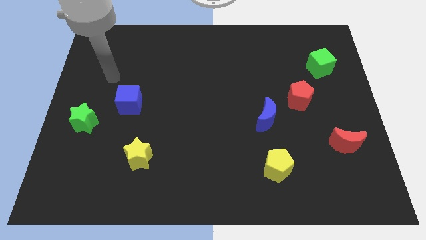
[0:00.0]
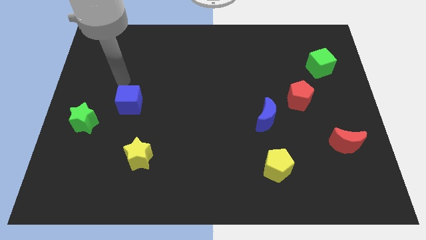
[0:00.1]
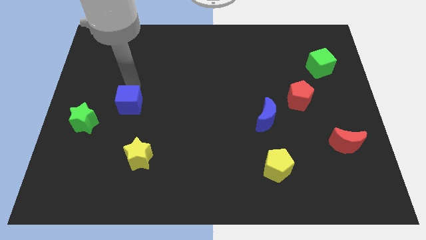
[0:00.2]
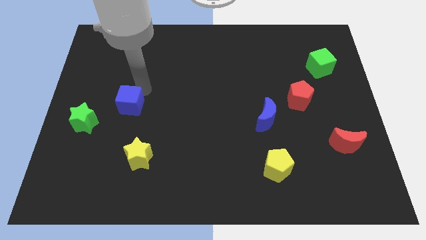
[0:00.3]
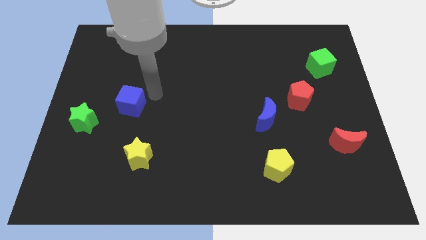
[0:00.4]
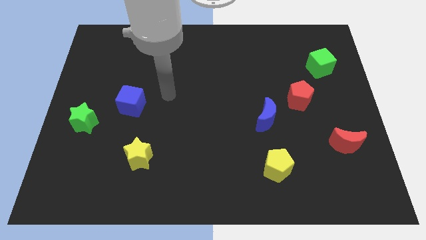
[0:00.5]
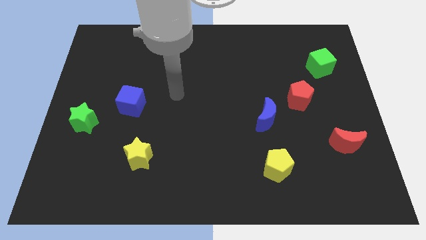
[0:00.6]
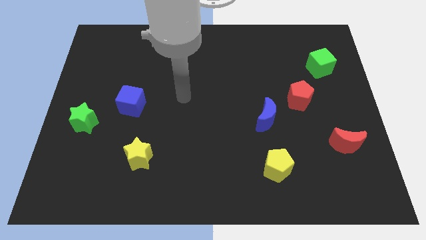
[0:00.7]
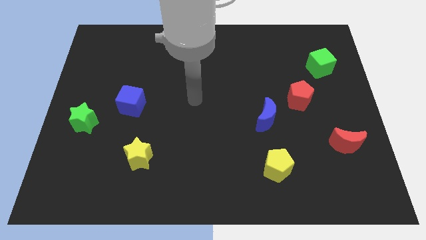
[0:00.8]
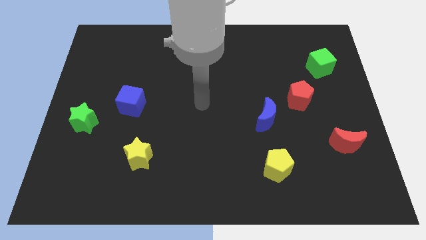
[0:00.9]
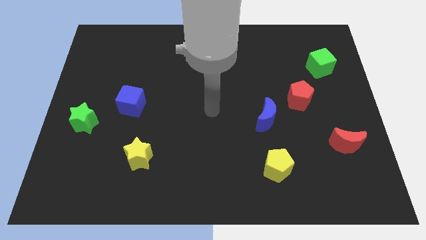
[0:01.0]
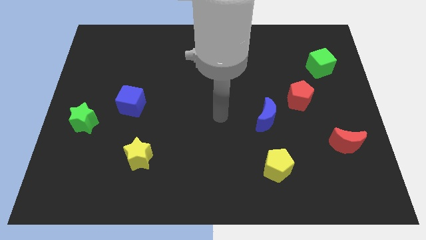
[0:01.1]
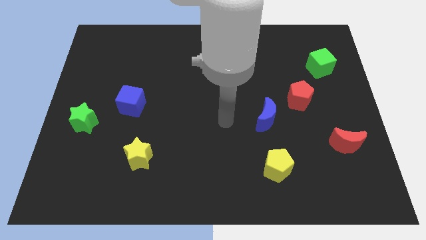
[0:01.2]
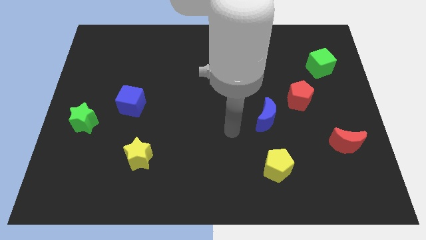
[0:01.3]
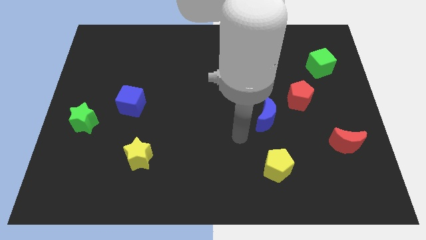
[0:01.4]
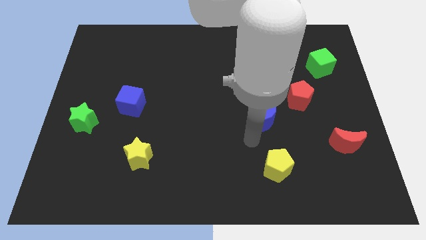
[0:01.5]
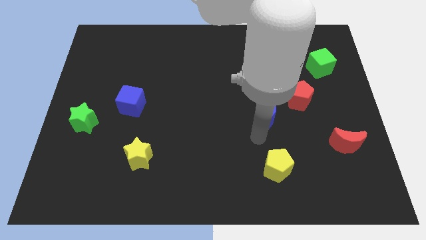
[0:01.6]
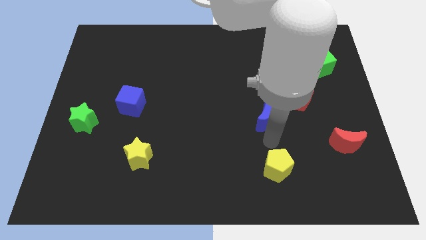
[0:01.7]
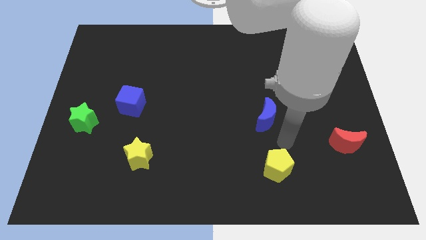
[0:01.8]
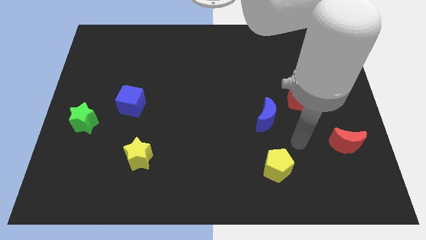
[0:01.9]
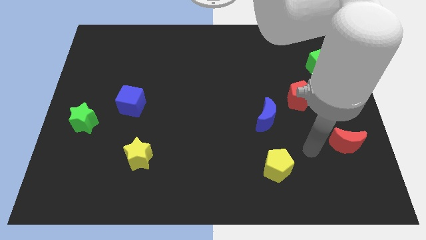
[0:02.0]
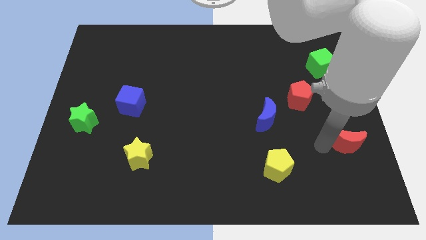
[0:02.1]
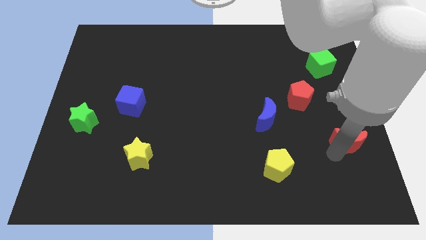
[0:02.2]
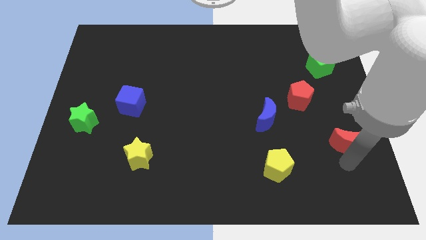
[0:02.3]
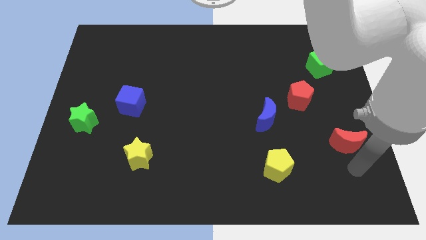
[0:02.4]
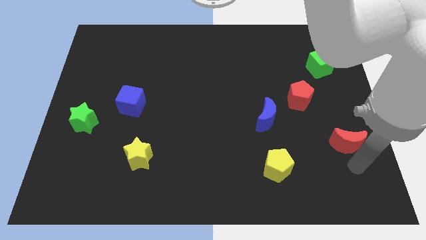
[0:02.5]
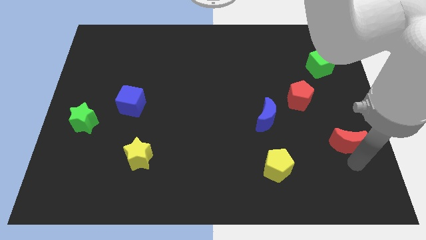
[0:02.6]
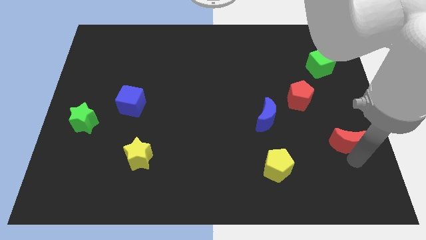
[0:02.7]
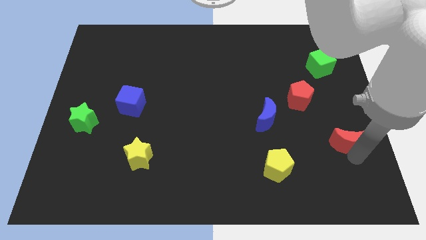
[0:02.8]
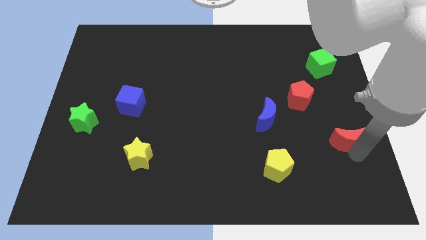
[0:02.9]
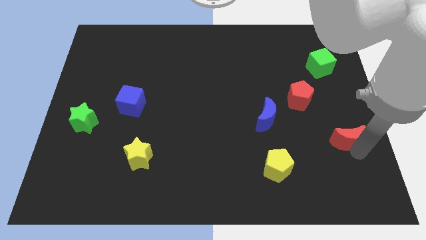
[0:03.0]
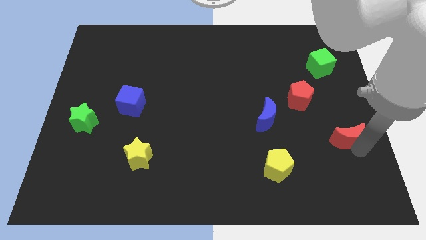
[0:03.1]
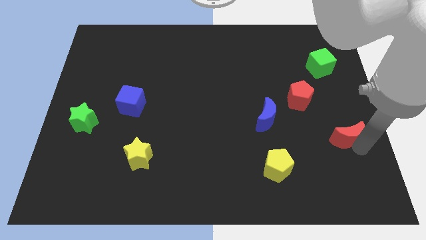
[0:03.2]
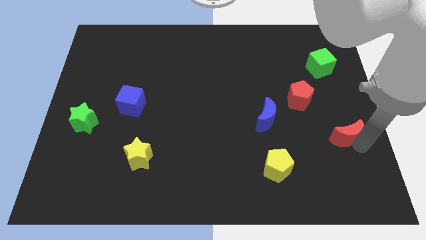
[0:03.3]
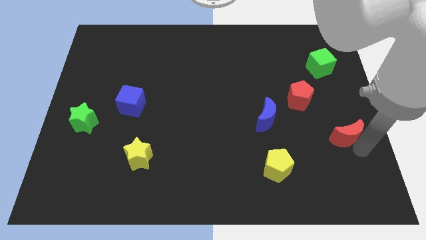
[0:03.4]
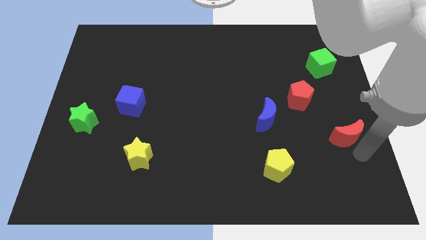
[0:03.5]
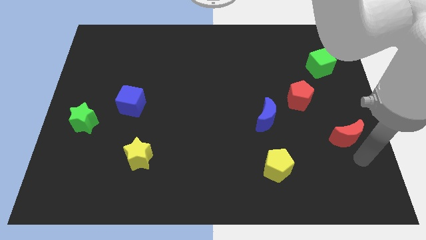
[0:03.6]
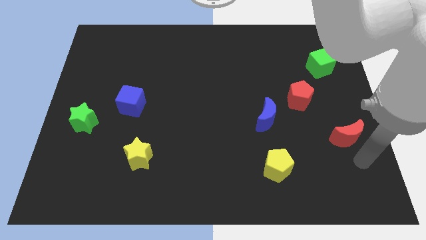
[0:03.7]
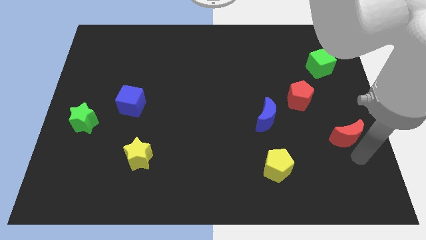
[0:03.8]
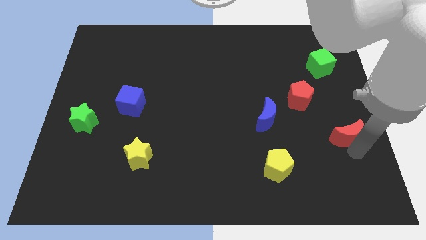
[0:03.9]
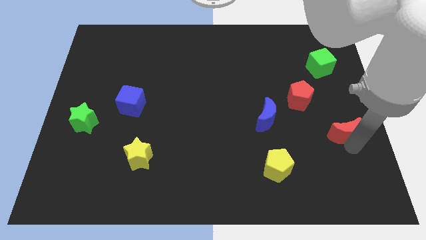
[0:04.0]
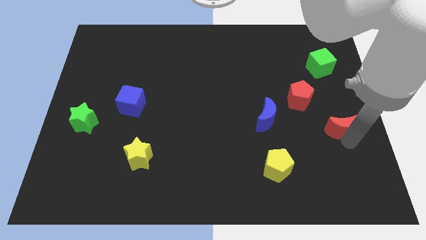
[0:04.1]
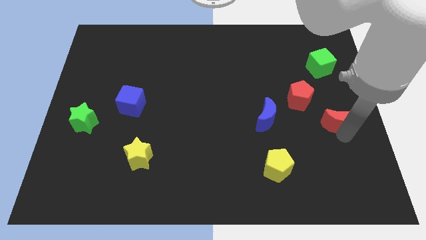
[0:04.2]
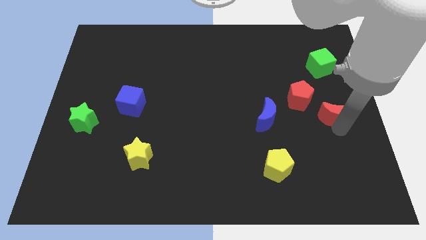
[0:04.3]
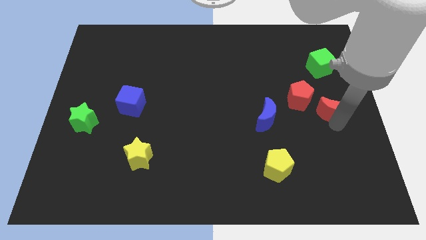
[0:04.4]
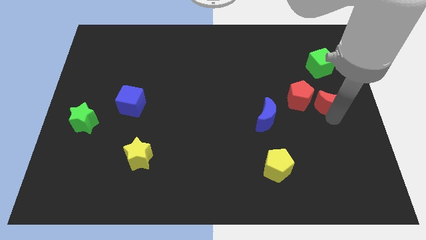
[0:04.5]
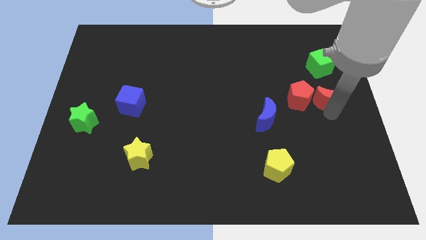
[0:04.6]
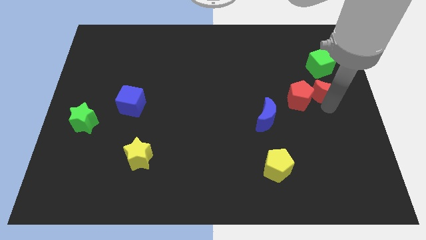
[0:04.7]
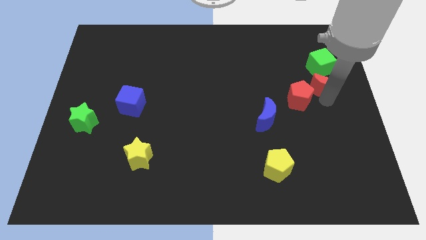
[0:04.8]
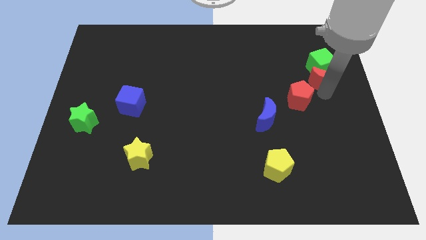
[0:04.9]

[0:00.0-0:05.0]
slide the red moon next to the green cube

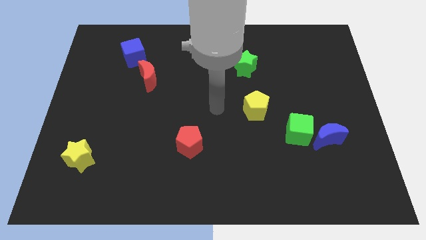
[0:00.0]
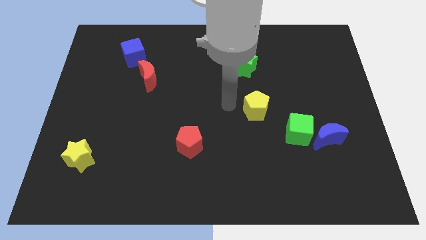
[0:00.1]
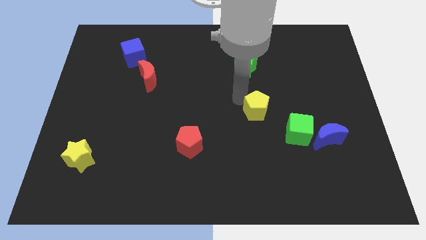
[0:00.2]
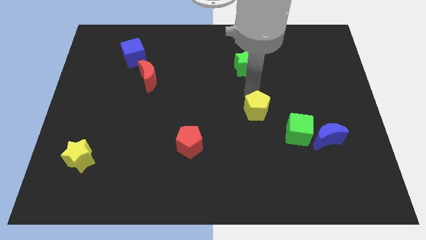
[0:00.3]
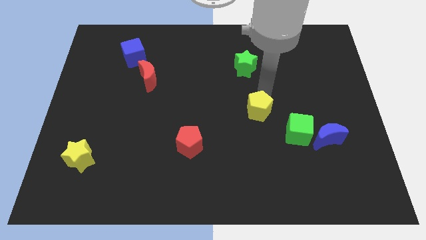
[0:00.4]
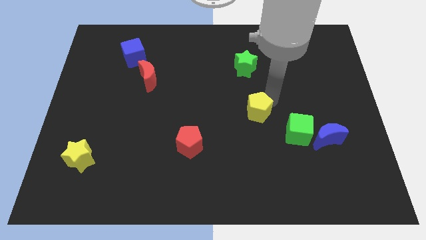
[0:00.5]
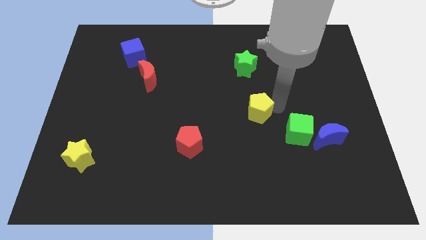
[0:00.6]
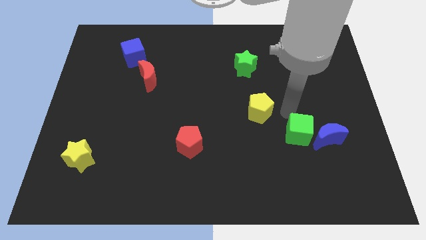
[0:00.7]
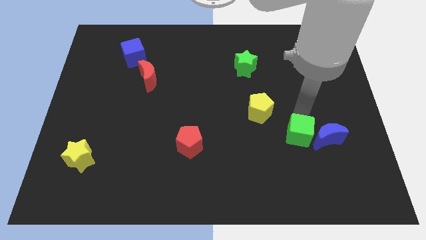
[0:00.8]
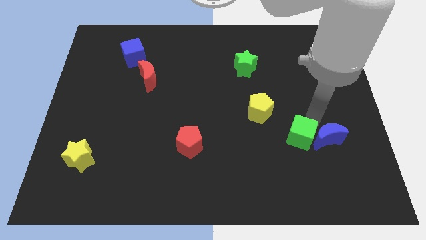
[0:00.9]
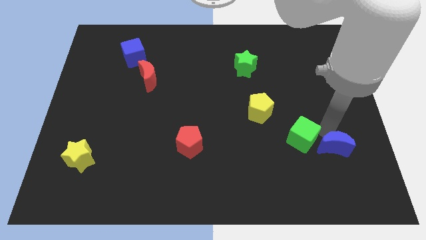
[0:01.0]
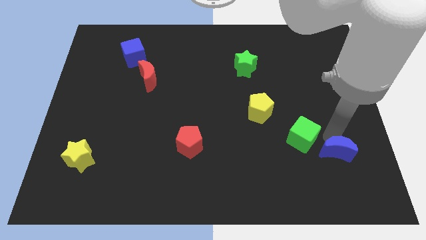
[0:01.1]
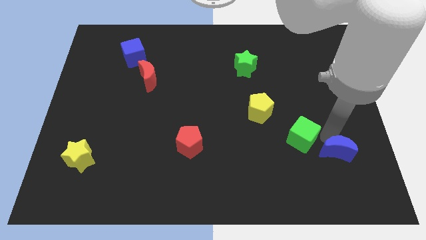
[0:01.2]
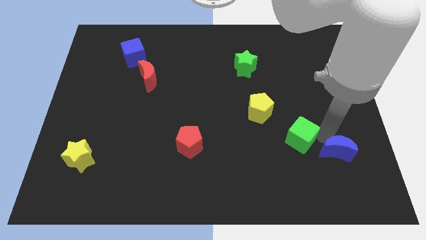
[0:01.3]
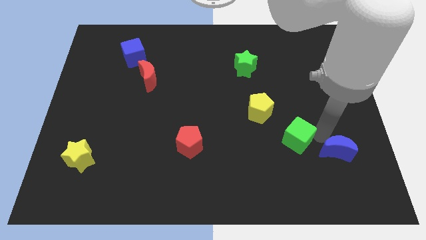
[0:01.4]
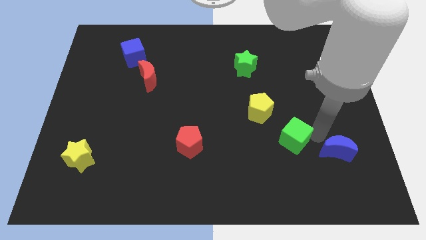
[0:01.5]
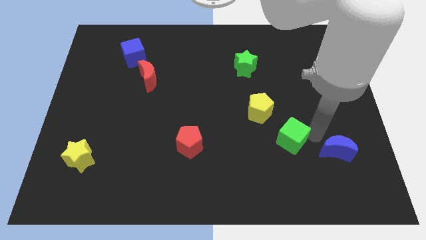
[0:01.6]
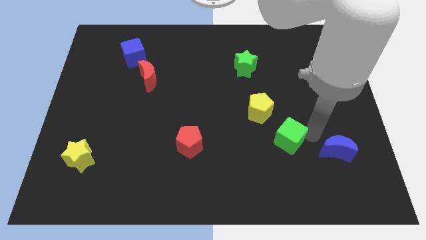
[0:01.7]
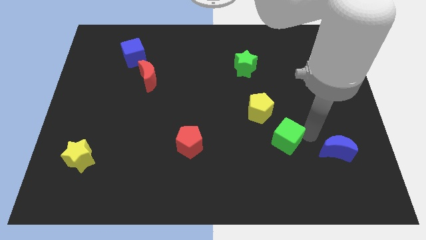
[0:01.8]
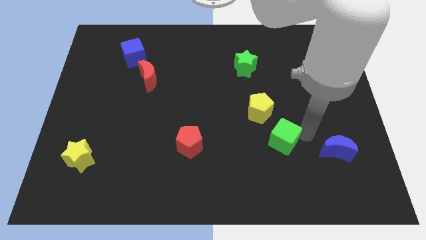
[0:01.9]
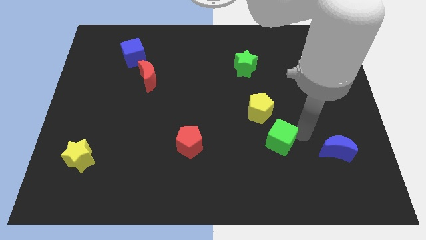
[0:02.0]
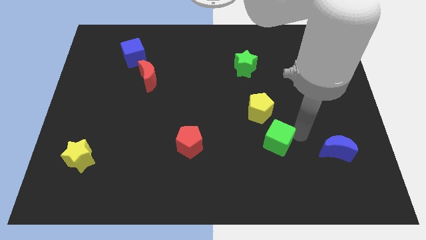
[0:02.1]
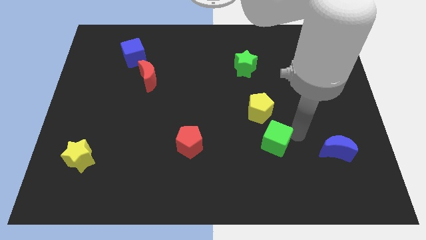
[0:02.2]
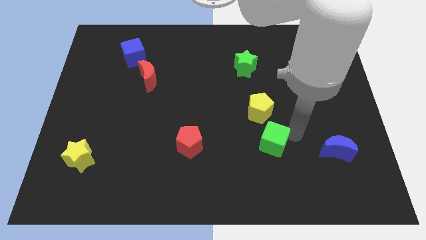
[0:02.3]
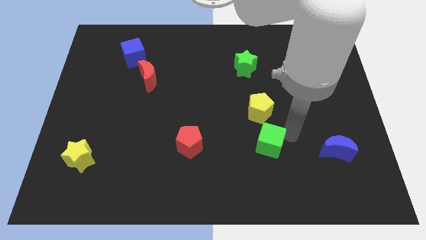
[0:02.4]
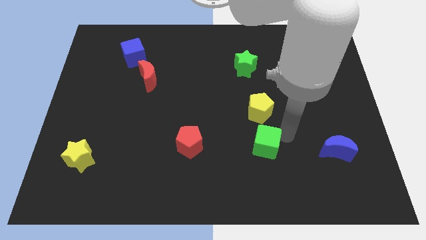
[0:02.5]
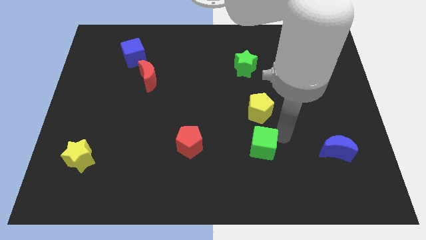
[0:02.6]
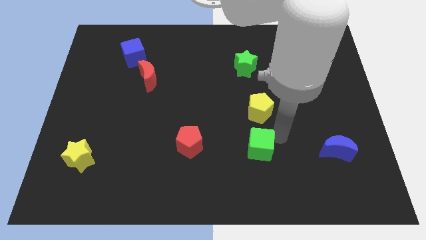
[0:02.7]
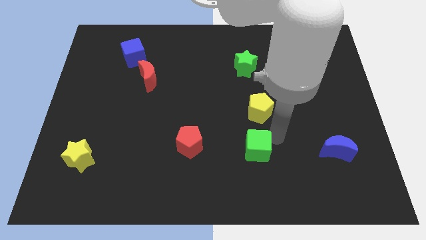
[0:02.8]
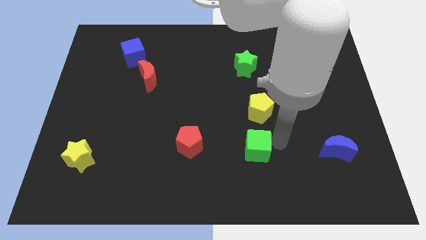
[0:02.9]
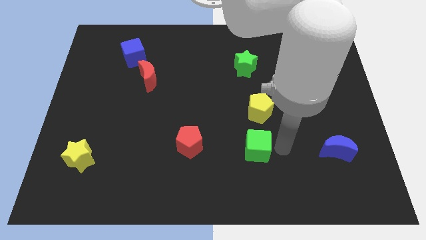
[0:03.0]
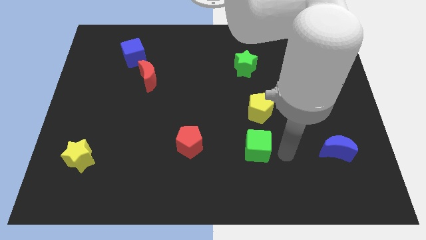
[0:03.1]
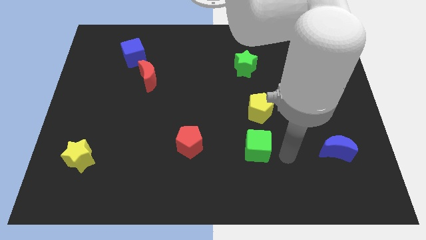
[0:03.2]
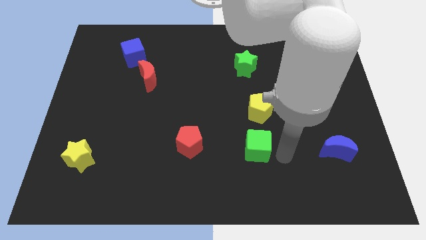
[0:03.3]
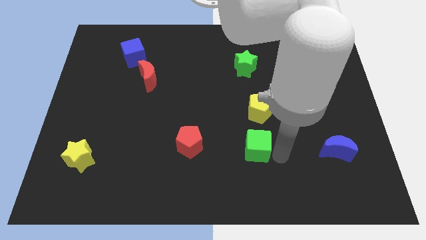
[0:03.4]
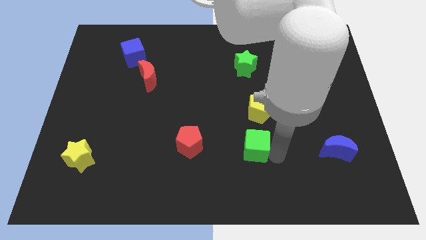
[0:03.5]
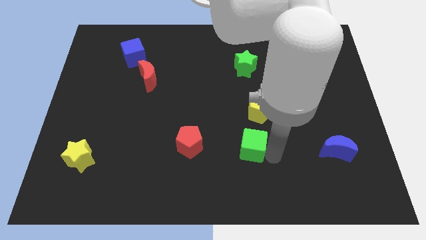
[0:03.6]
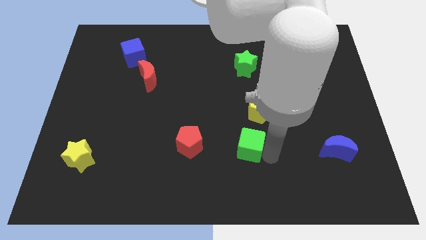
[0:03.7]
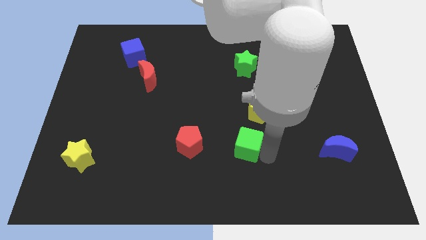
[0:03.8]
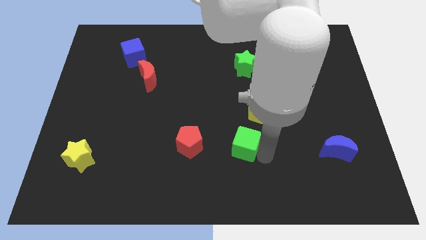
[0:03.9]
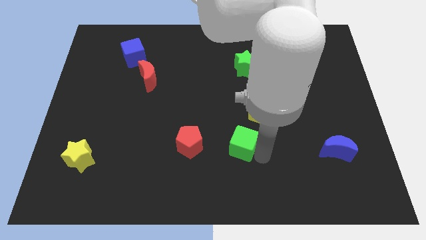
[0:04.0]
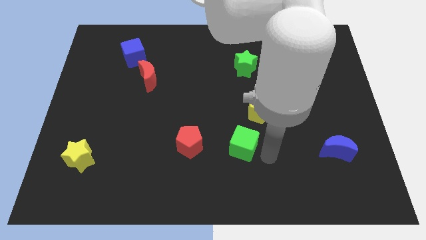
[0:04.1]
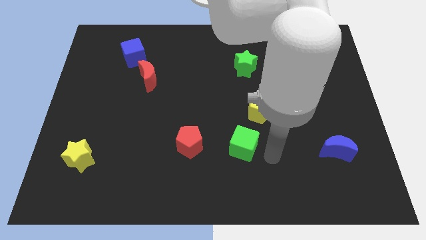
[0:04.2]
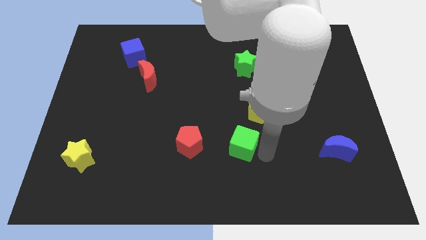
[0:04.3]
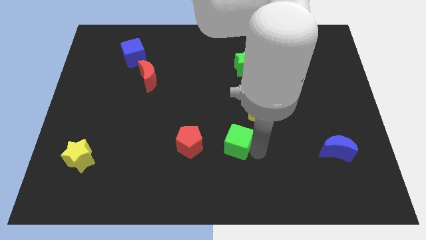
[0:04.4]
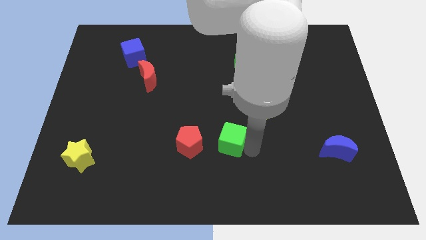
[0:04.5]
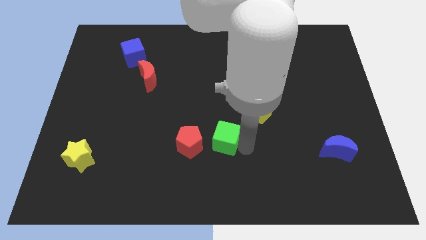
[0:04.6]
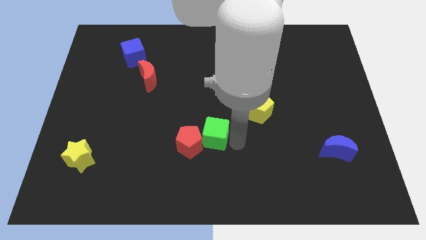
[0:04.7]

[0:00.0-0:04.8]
move the green cube to the red pentagon
